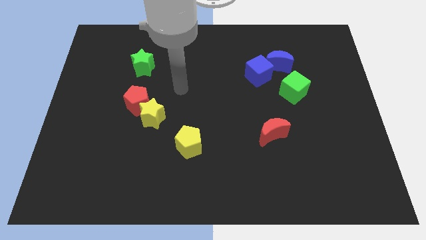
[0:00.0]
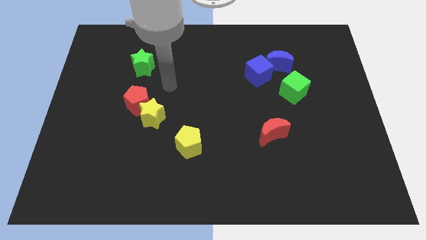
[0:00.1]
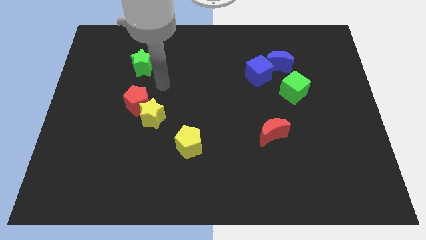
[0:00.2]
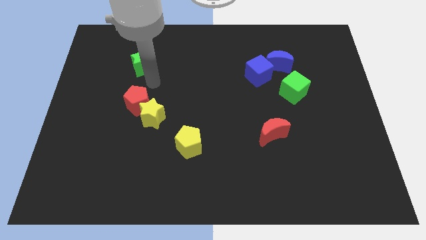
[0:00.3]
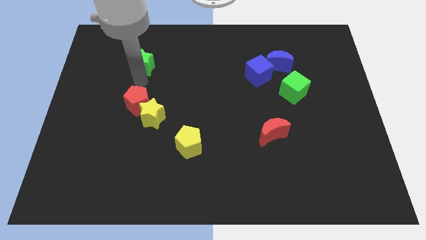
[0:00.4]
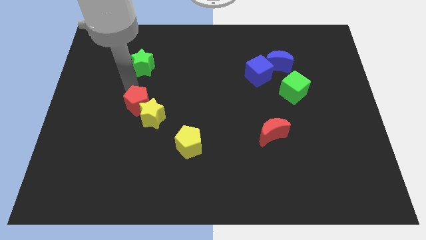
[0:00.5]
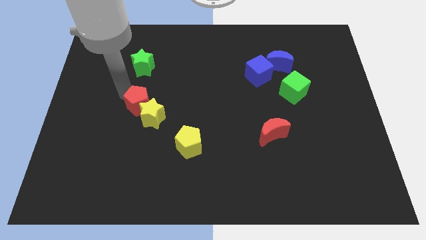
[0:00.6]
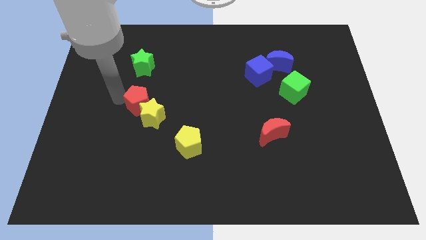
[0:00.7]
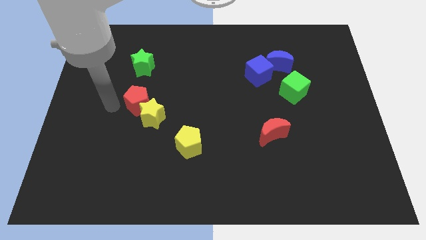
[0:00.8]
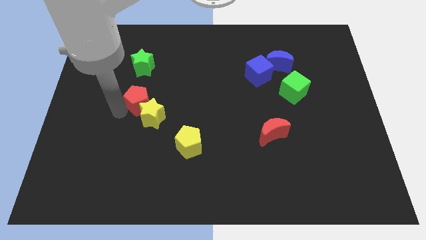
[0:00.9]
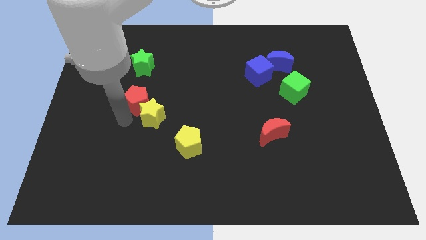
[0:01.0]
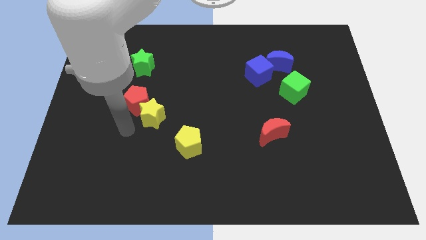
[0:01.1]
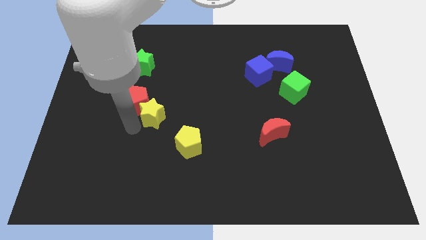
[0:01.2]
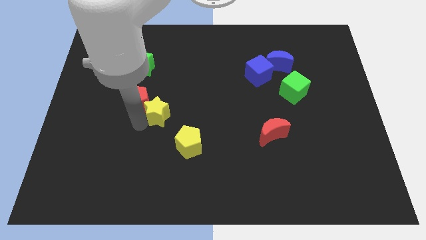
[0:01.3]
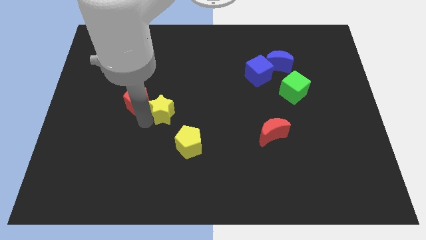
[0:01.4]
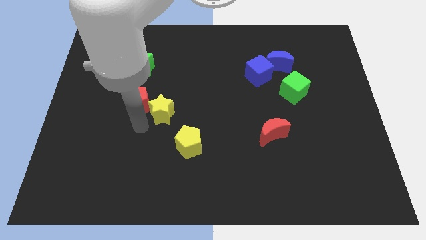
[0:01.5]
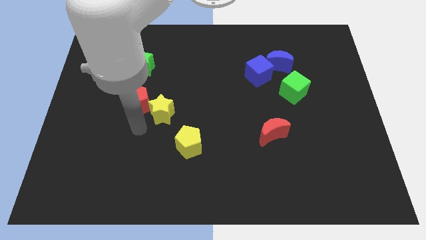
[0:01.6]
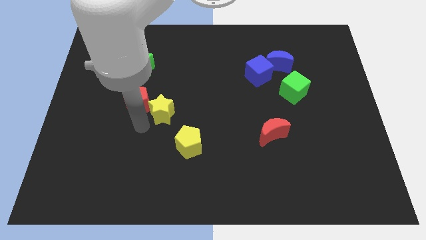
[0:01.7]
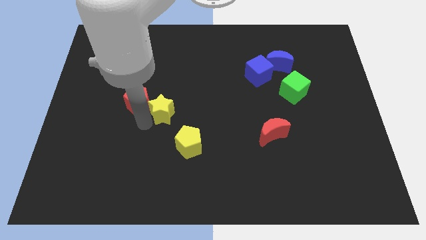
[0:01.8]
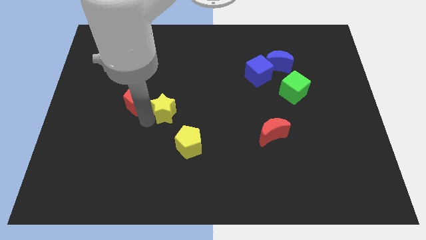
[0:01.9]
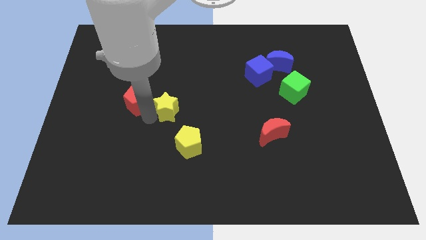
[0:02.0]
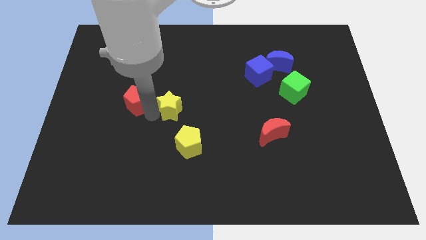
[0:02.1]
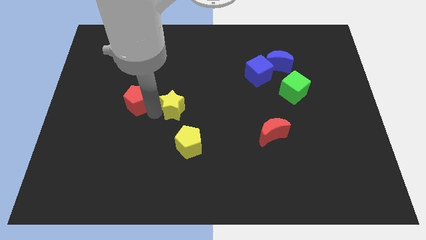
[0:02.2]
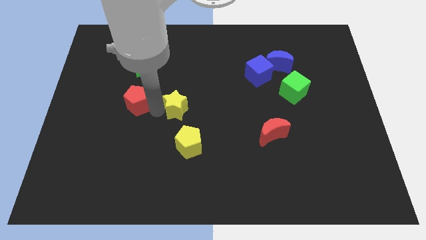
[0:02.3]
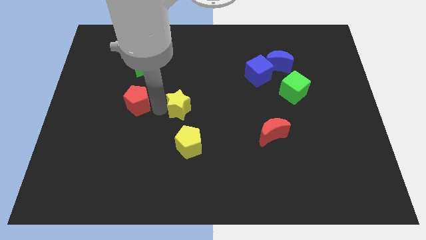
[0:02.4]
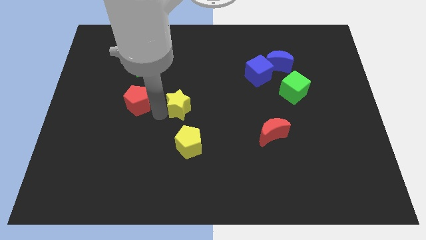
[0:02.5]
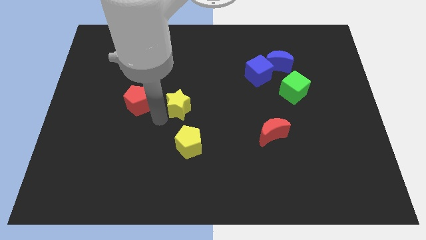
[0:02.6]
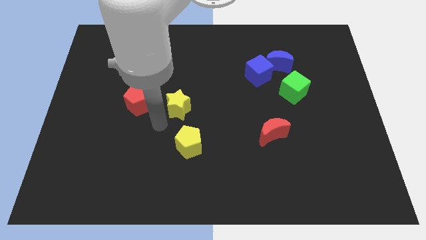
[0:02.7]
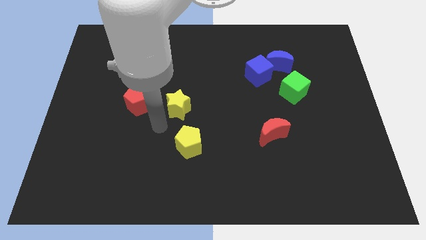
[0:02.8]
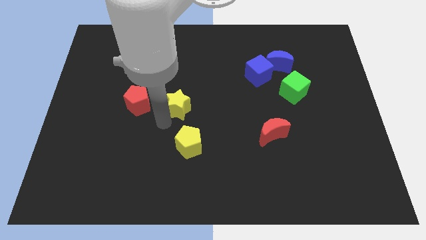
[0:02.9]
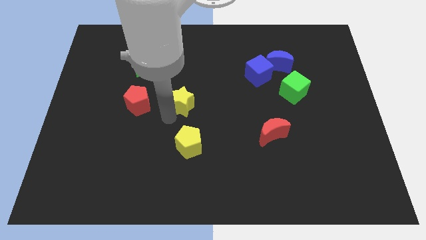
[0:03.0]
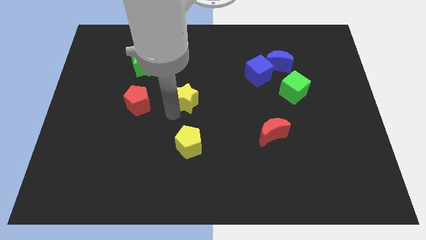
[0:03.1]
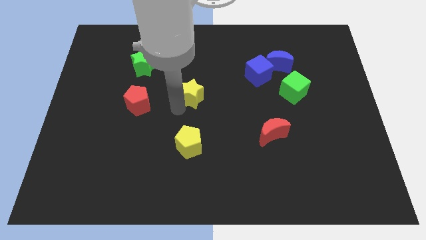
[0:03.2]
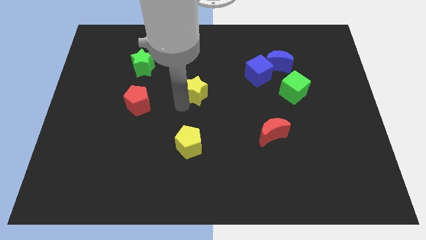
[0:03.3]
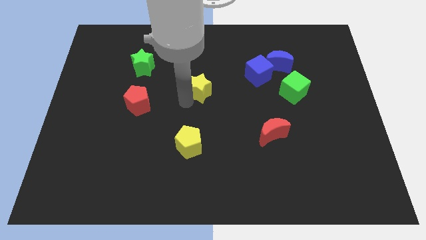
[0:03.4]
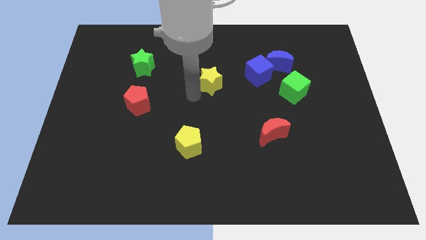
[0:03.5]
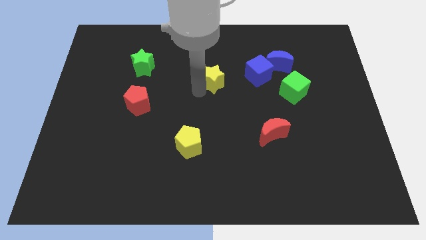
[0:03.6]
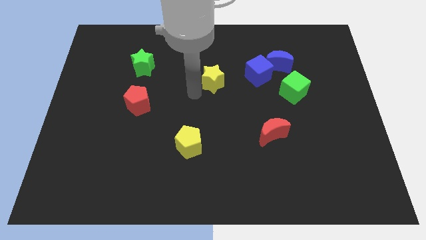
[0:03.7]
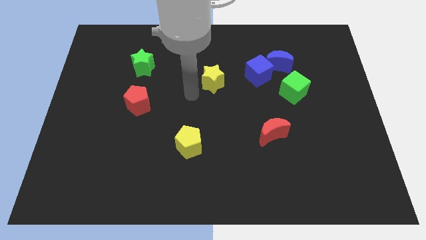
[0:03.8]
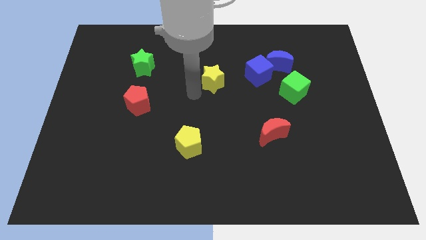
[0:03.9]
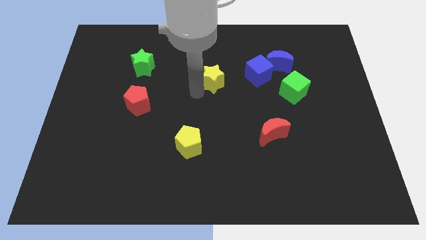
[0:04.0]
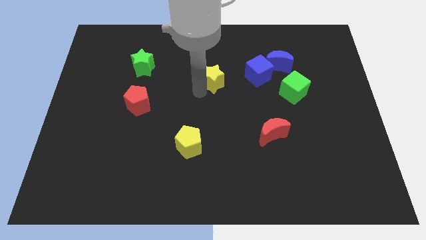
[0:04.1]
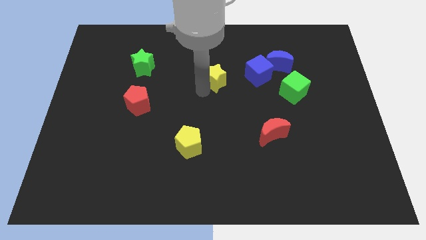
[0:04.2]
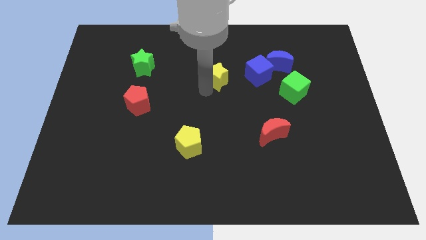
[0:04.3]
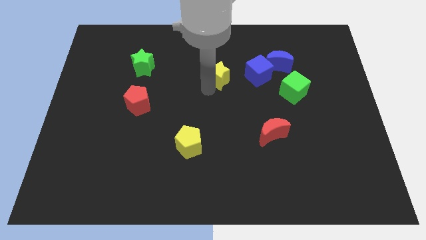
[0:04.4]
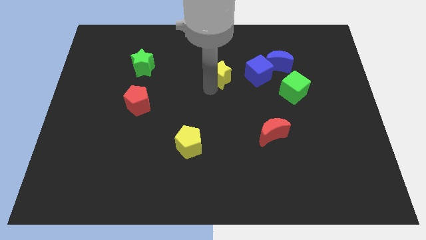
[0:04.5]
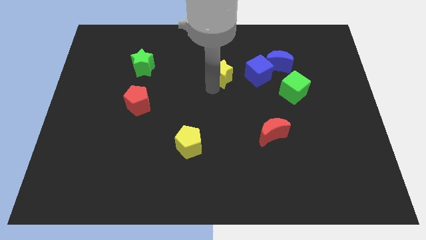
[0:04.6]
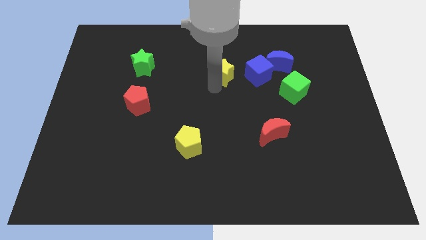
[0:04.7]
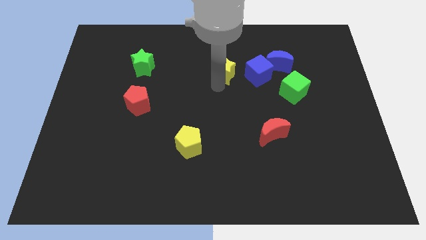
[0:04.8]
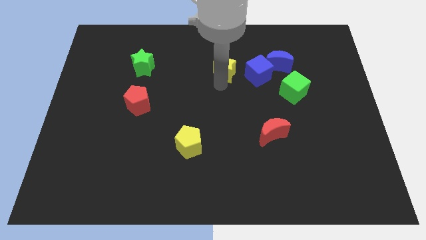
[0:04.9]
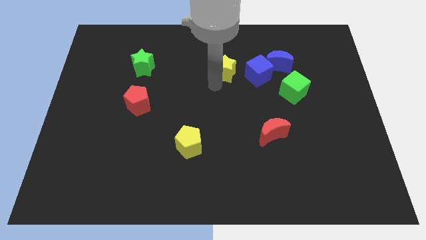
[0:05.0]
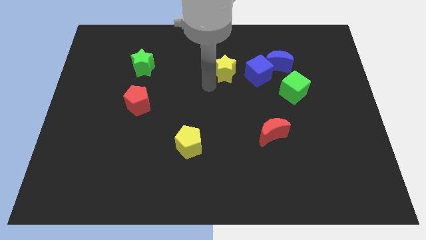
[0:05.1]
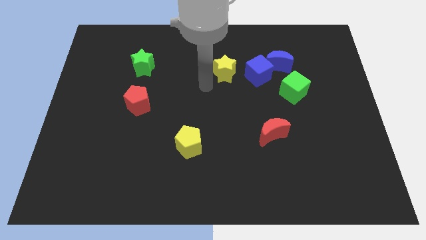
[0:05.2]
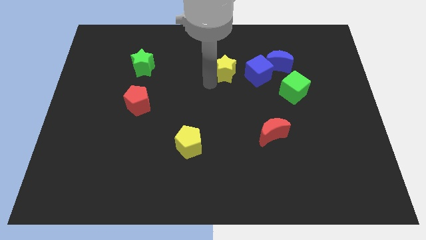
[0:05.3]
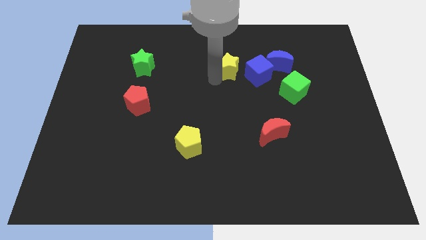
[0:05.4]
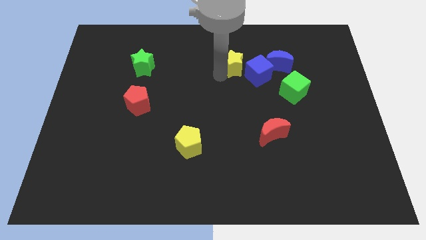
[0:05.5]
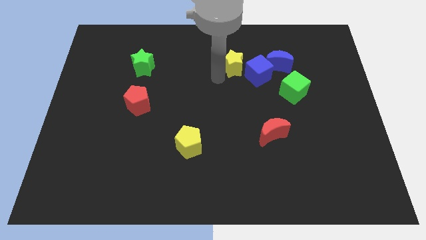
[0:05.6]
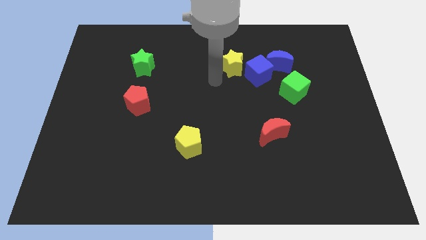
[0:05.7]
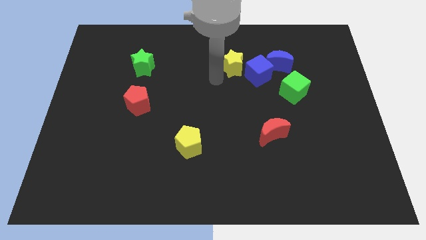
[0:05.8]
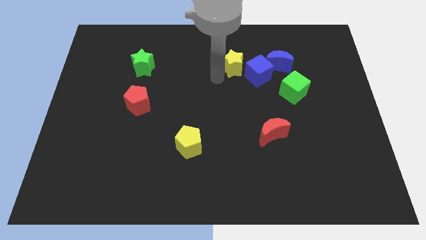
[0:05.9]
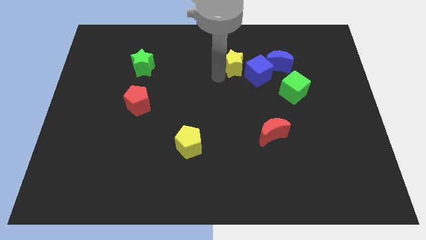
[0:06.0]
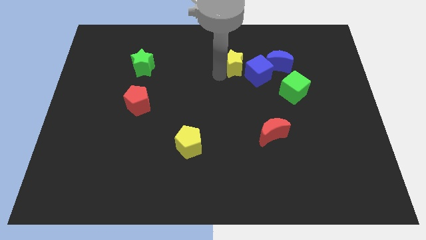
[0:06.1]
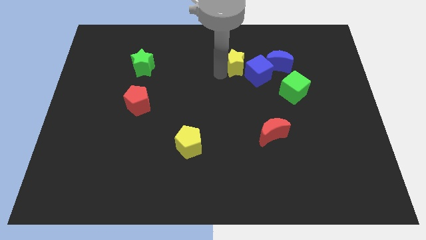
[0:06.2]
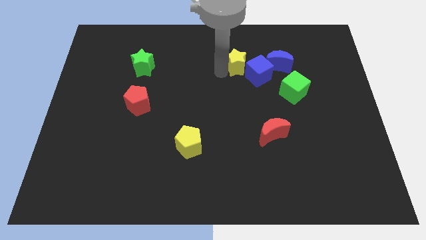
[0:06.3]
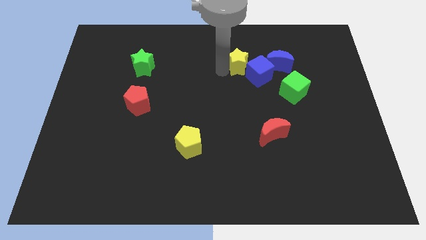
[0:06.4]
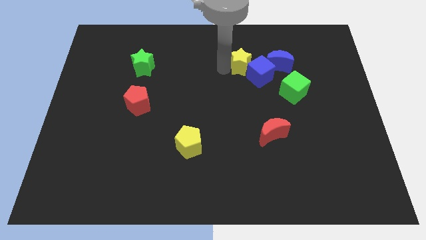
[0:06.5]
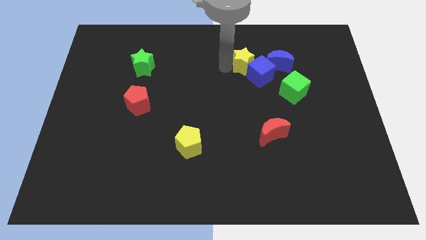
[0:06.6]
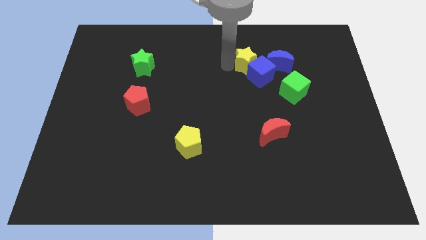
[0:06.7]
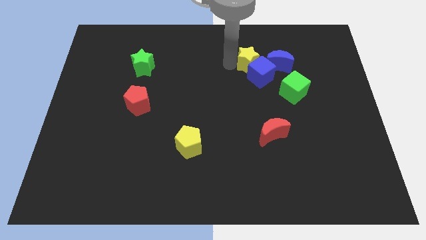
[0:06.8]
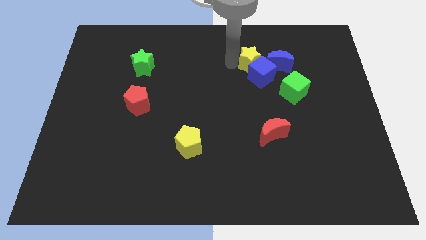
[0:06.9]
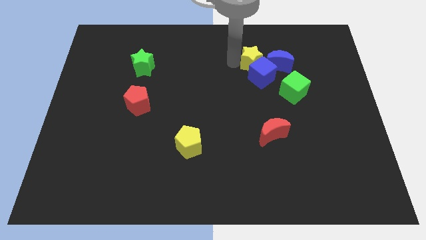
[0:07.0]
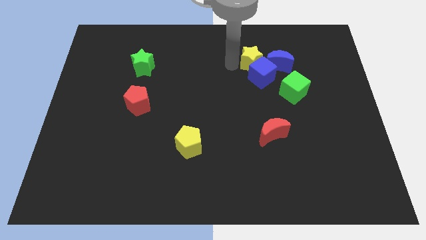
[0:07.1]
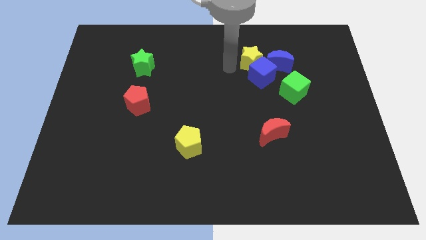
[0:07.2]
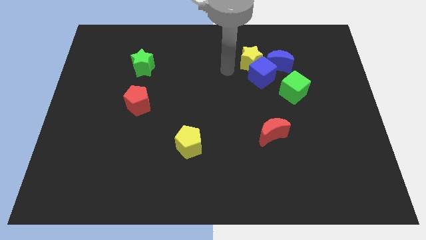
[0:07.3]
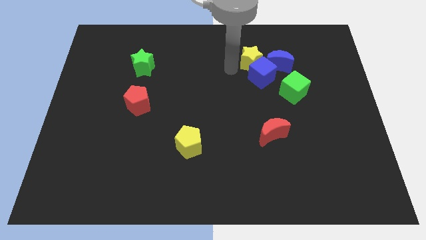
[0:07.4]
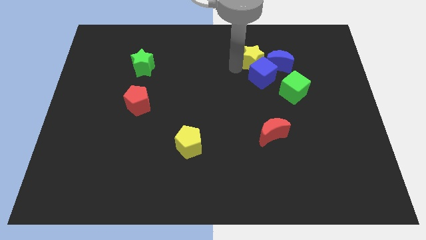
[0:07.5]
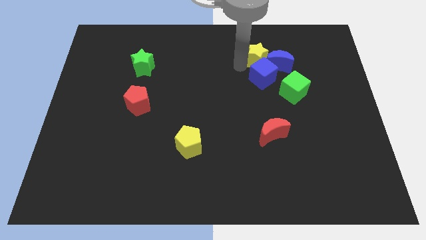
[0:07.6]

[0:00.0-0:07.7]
push the yellow star to the blue moon
